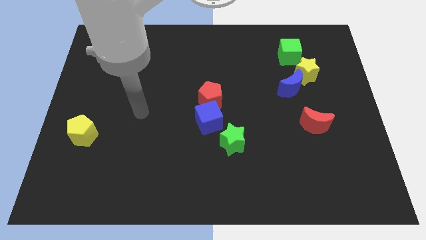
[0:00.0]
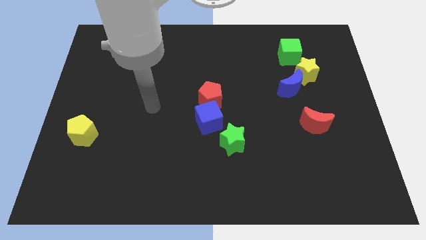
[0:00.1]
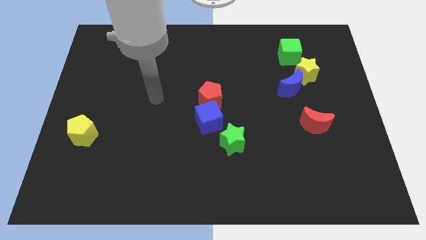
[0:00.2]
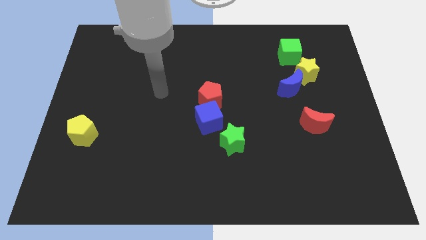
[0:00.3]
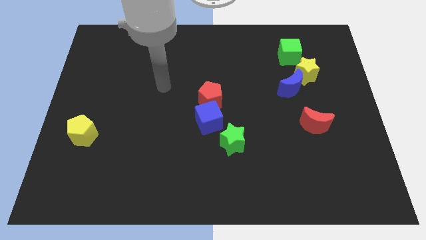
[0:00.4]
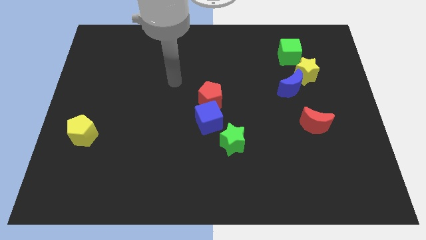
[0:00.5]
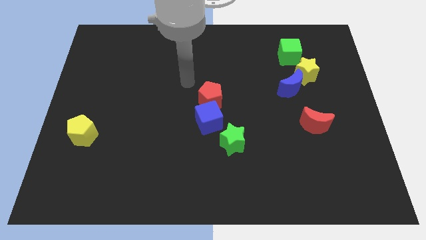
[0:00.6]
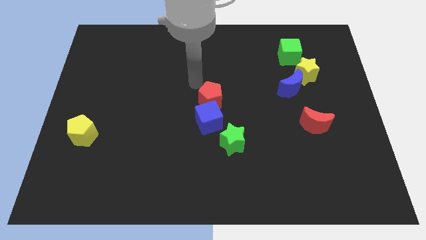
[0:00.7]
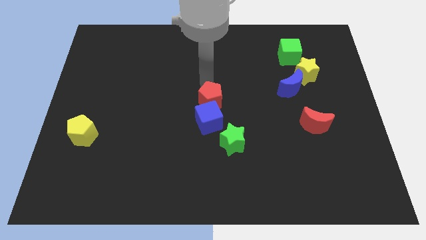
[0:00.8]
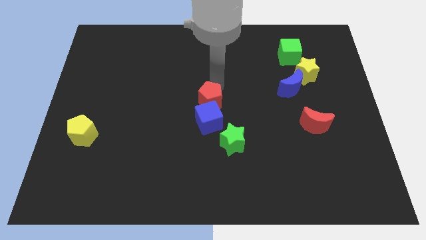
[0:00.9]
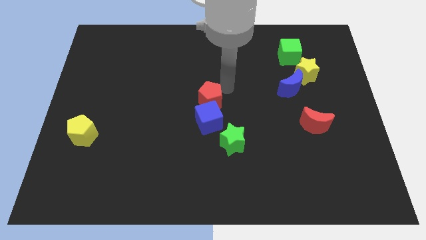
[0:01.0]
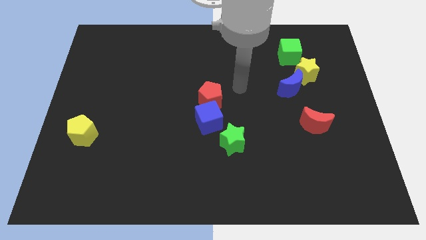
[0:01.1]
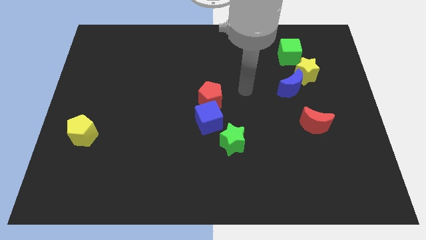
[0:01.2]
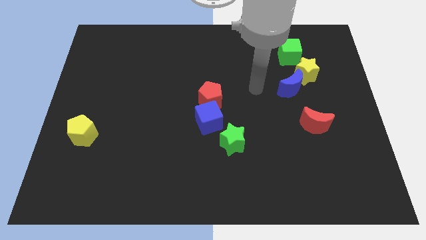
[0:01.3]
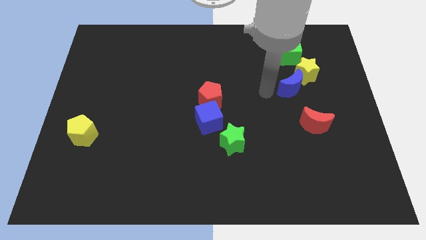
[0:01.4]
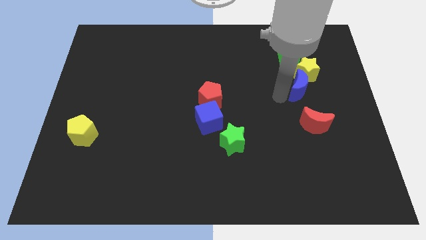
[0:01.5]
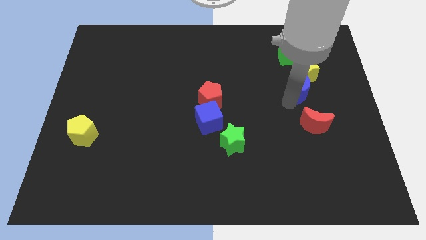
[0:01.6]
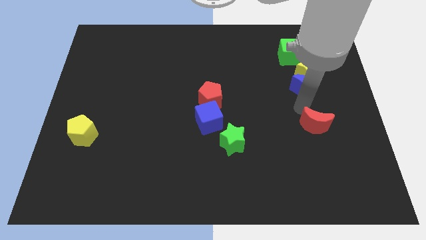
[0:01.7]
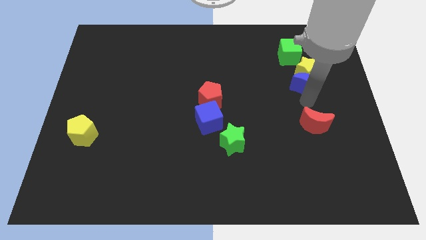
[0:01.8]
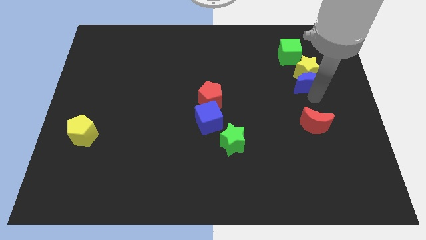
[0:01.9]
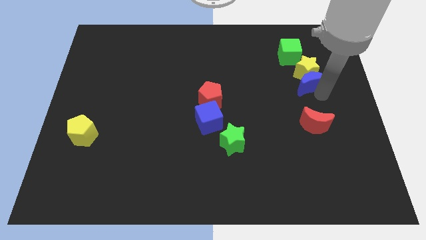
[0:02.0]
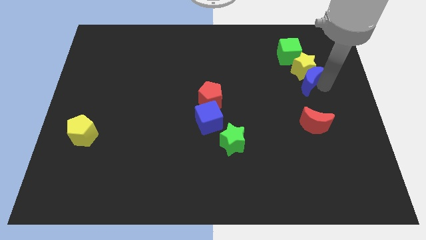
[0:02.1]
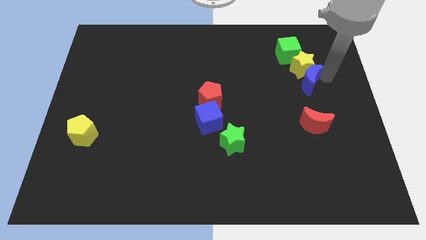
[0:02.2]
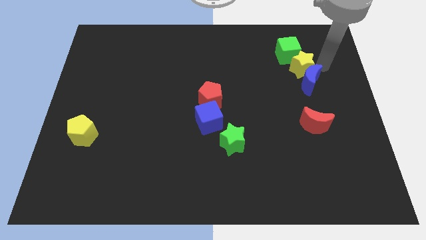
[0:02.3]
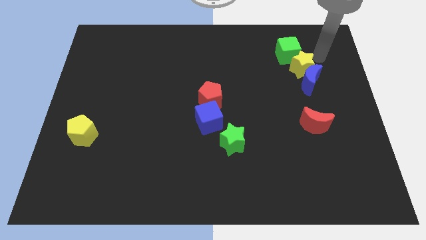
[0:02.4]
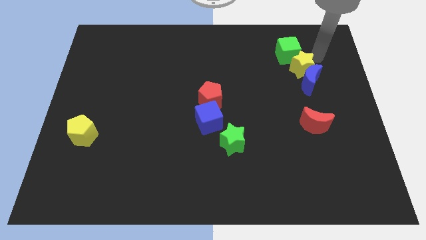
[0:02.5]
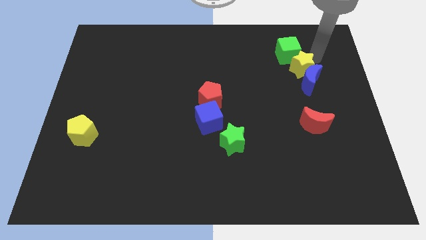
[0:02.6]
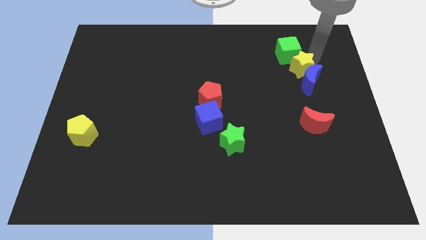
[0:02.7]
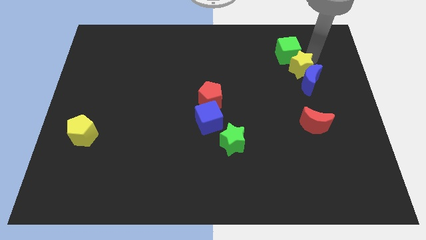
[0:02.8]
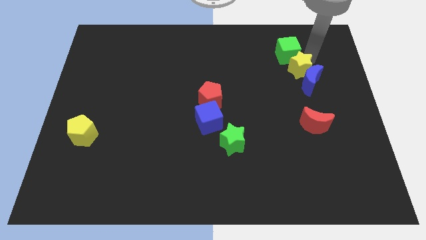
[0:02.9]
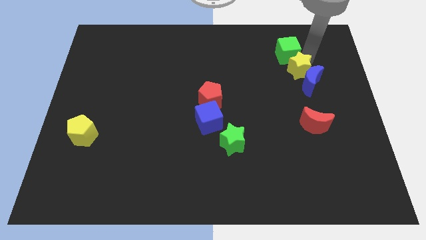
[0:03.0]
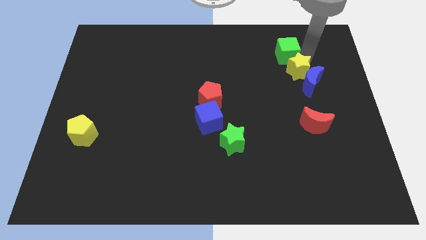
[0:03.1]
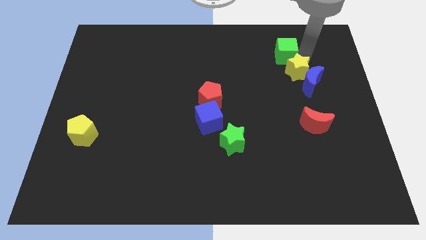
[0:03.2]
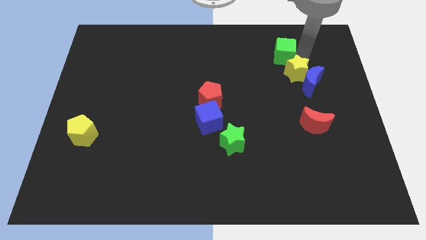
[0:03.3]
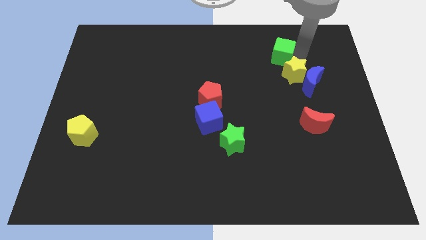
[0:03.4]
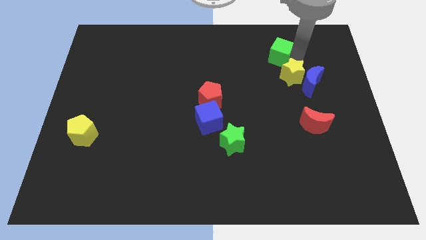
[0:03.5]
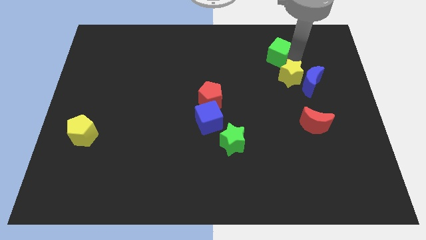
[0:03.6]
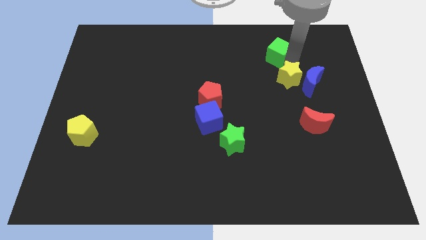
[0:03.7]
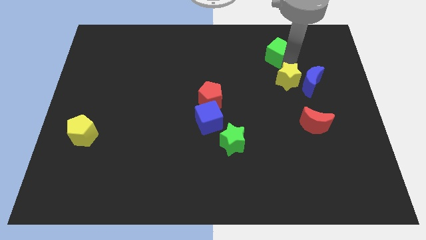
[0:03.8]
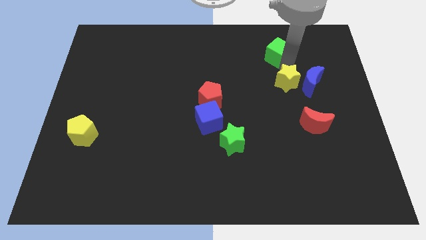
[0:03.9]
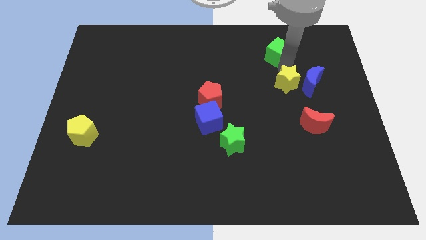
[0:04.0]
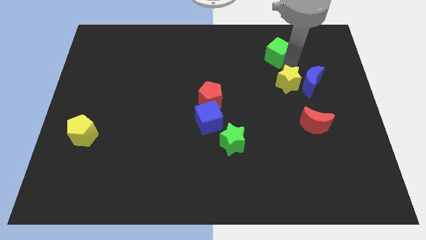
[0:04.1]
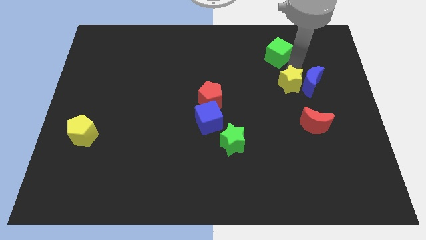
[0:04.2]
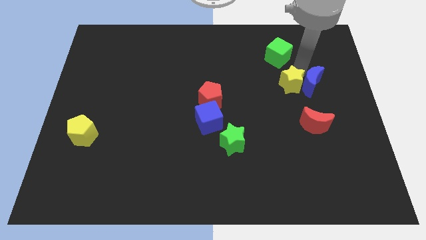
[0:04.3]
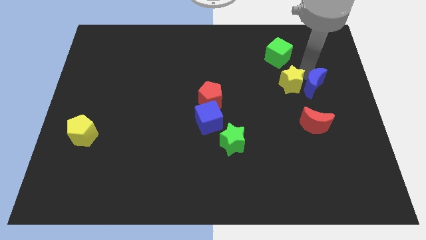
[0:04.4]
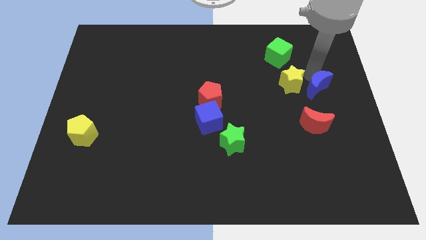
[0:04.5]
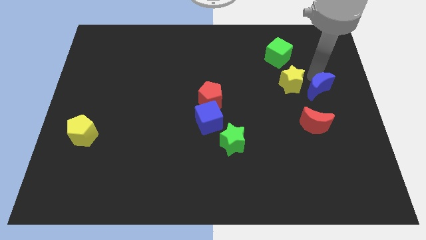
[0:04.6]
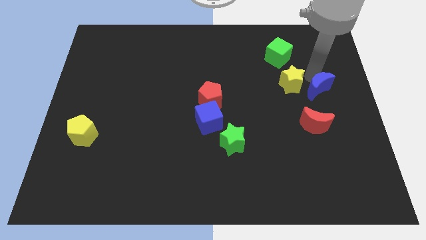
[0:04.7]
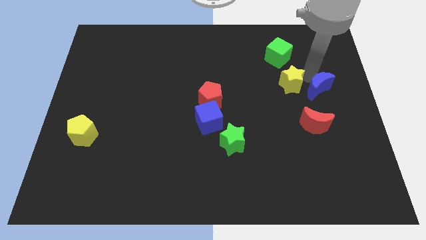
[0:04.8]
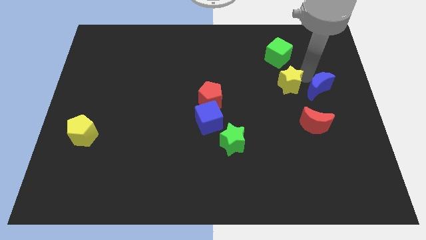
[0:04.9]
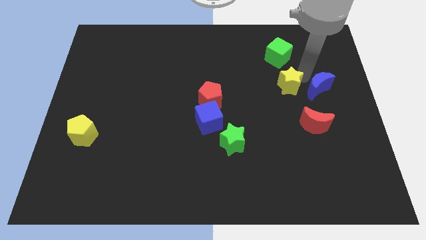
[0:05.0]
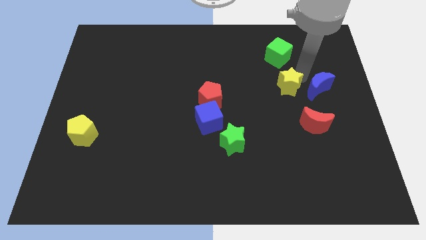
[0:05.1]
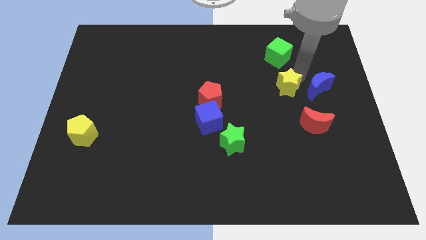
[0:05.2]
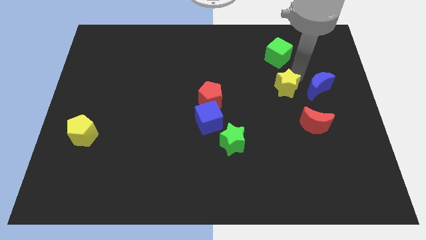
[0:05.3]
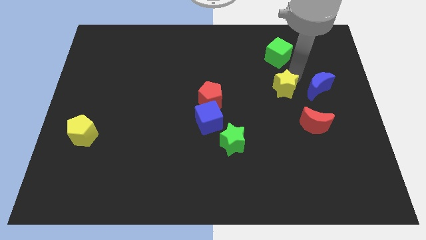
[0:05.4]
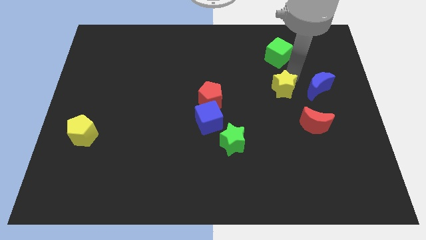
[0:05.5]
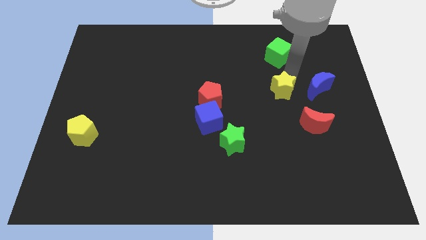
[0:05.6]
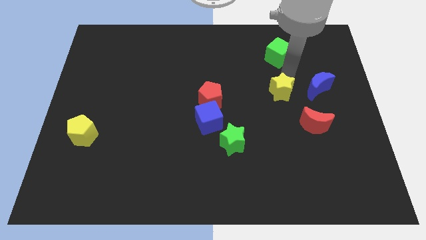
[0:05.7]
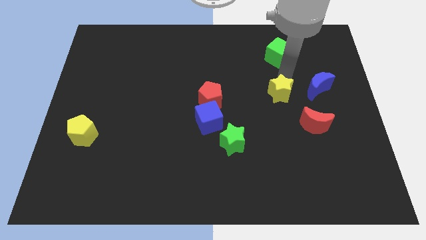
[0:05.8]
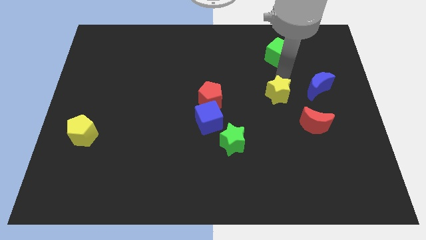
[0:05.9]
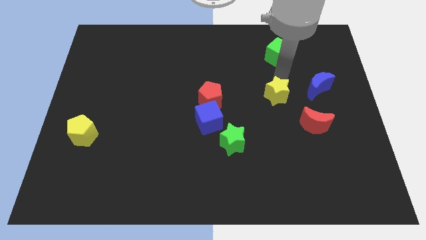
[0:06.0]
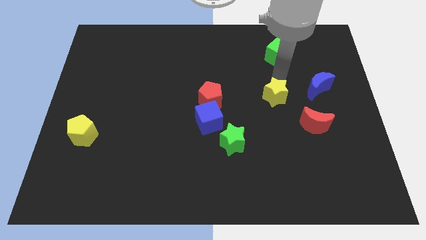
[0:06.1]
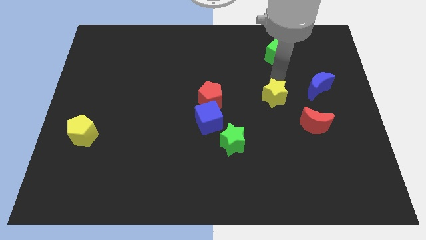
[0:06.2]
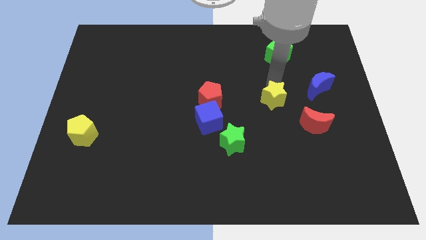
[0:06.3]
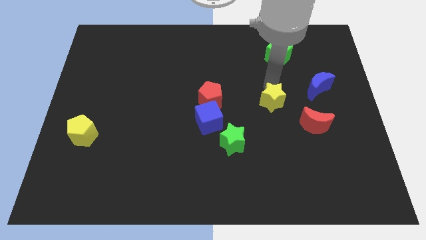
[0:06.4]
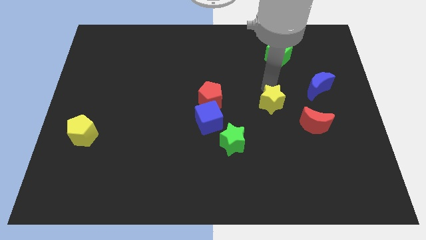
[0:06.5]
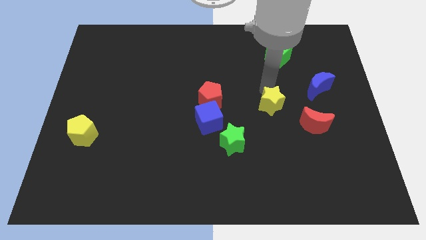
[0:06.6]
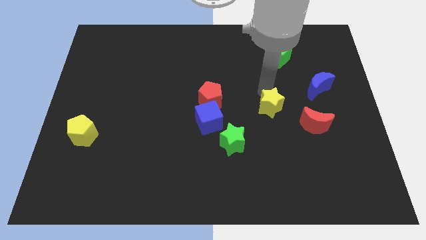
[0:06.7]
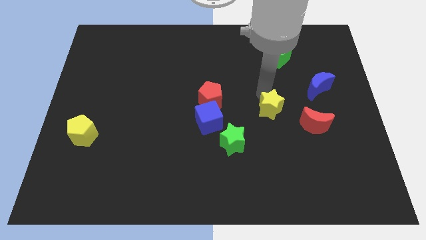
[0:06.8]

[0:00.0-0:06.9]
move the yellow star to the right of the blue cube

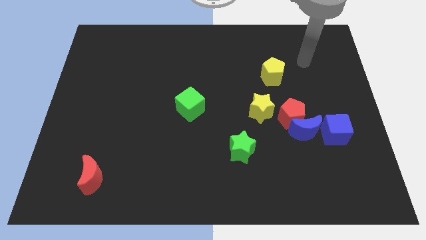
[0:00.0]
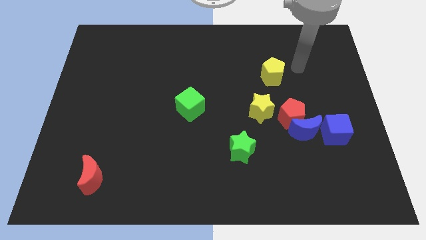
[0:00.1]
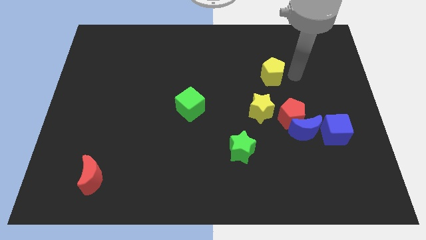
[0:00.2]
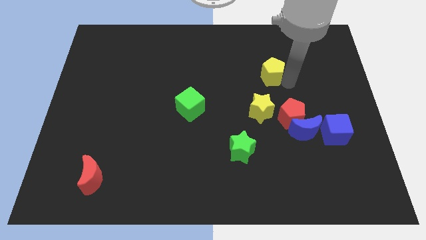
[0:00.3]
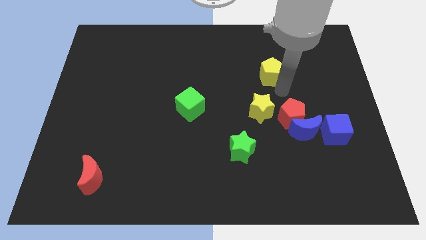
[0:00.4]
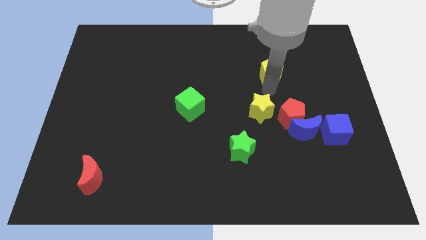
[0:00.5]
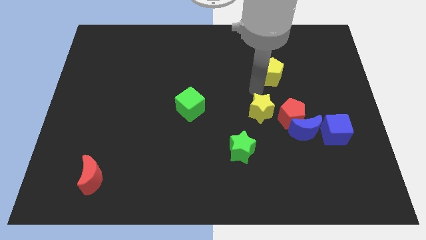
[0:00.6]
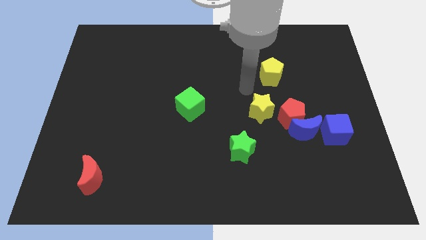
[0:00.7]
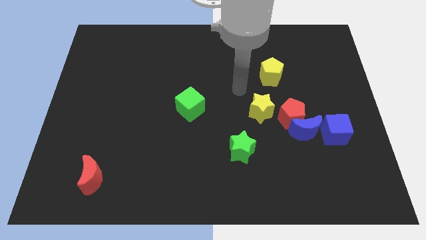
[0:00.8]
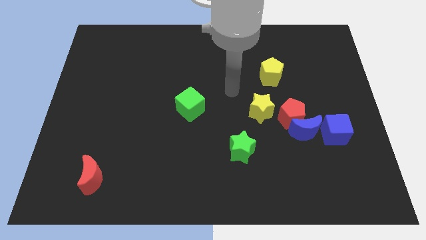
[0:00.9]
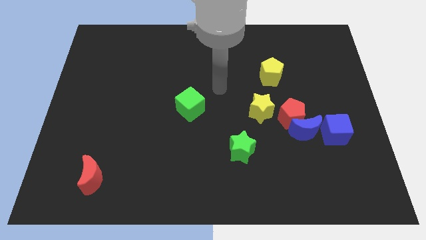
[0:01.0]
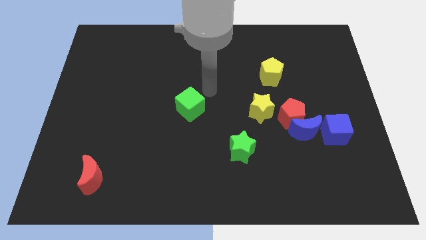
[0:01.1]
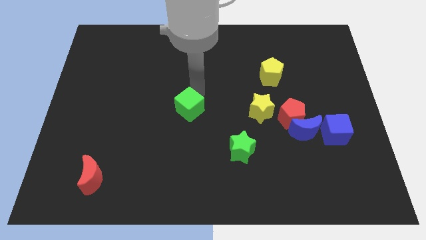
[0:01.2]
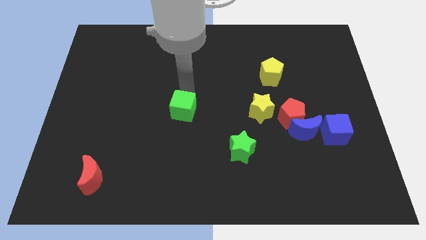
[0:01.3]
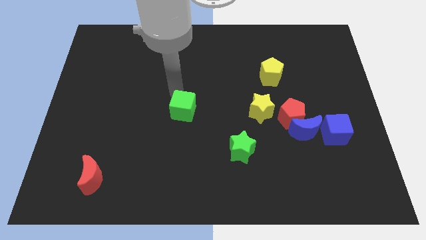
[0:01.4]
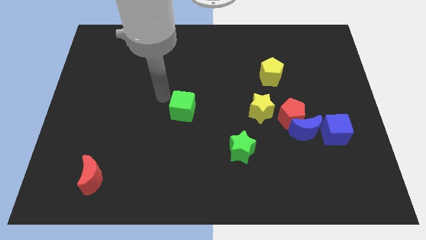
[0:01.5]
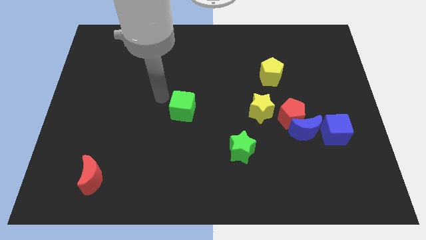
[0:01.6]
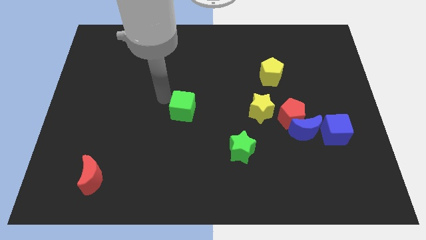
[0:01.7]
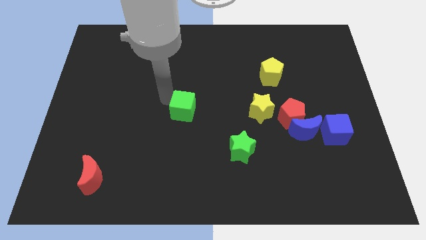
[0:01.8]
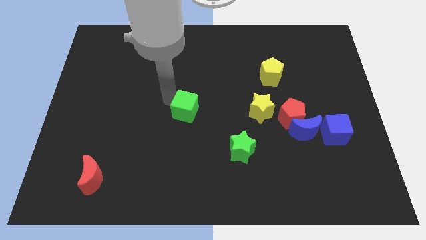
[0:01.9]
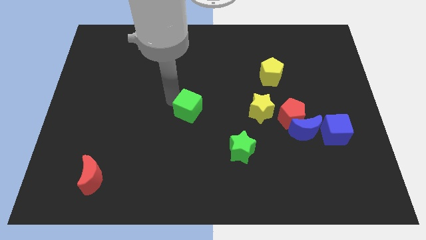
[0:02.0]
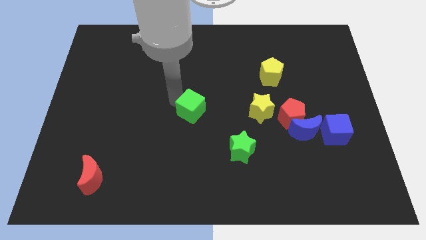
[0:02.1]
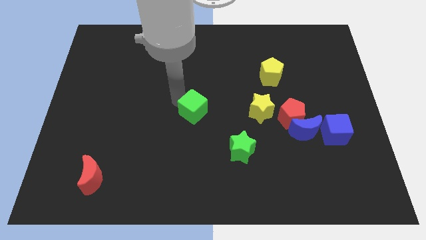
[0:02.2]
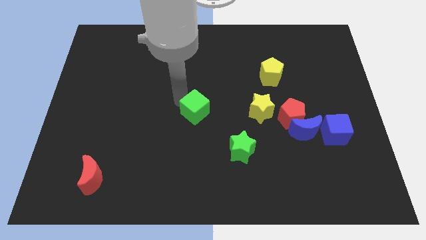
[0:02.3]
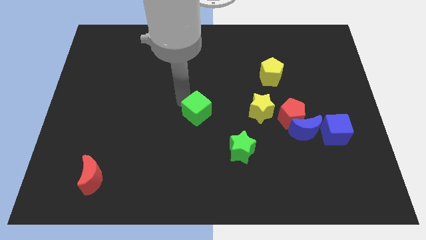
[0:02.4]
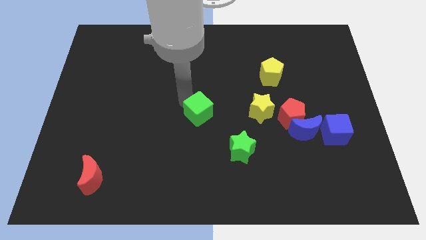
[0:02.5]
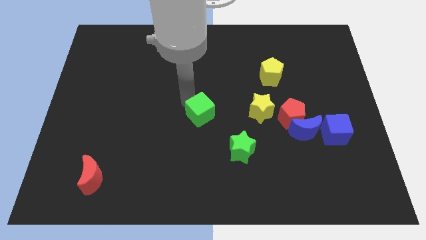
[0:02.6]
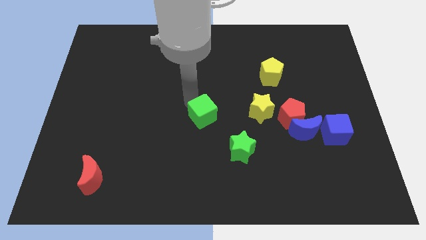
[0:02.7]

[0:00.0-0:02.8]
move the green cube to the top left side of the green star
